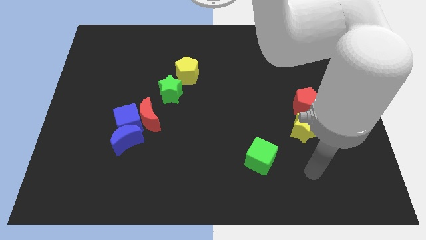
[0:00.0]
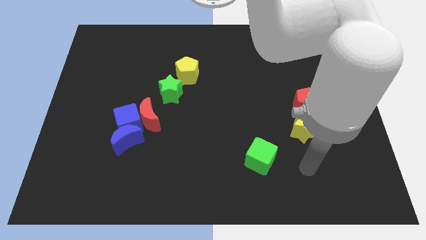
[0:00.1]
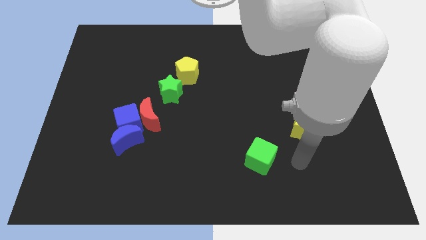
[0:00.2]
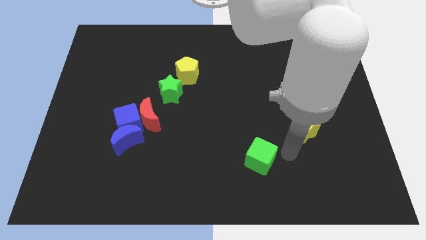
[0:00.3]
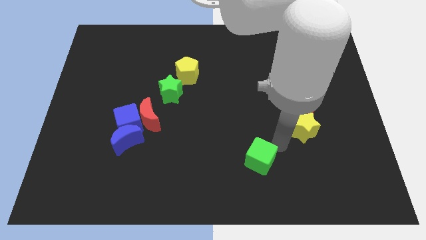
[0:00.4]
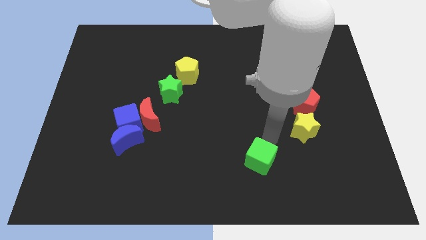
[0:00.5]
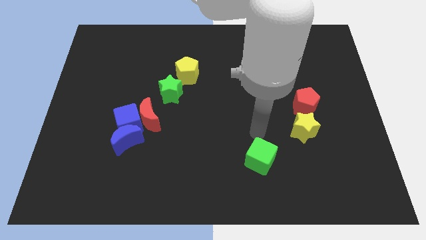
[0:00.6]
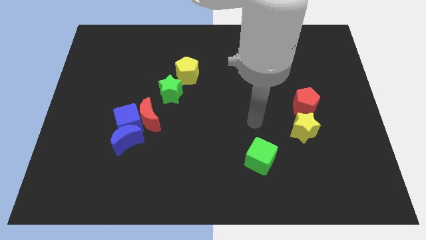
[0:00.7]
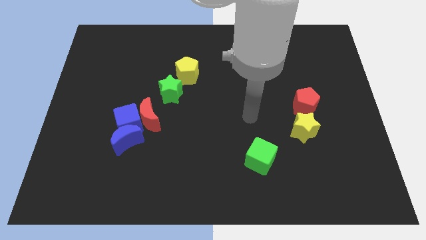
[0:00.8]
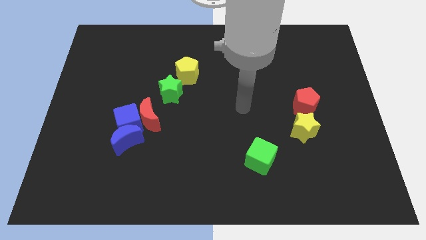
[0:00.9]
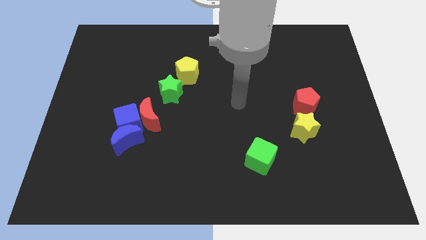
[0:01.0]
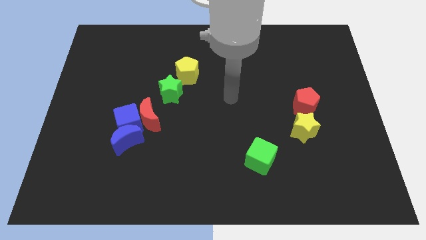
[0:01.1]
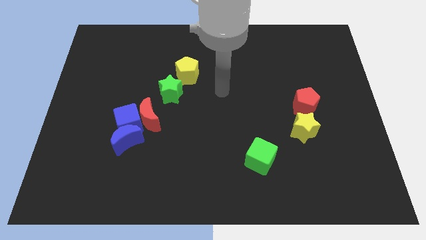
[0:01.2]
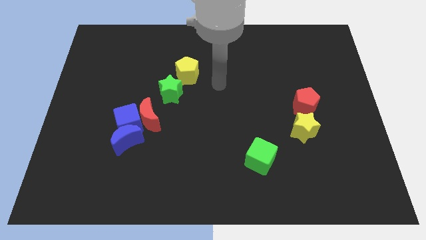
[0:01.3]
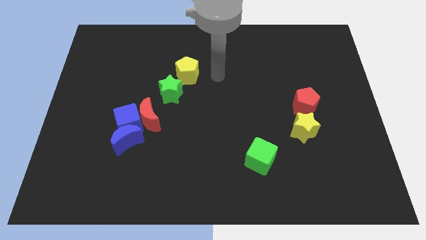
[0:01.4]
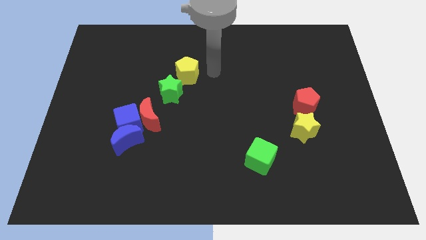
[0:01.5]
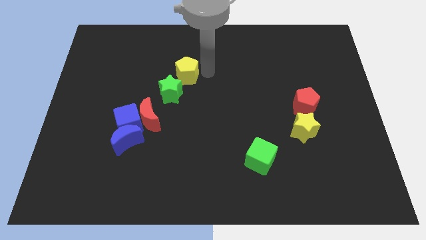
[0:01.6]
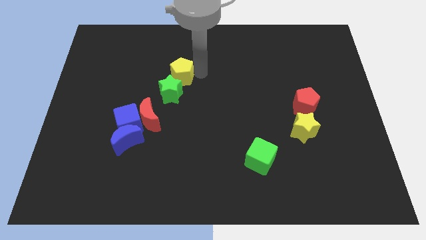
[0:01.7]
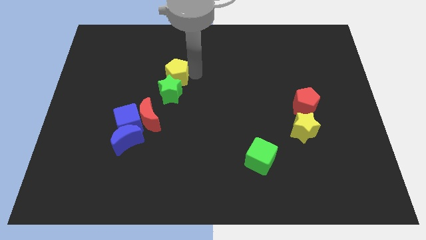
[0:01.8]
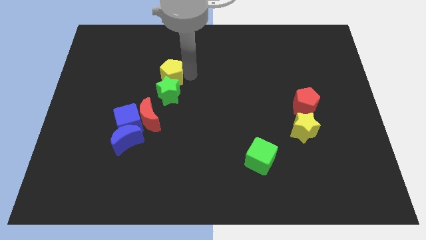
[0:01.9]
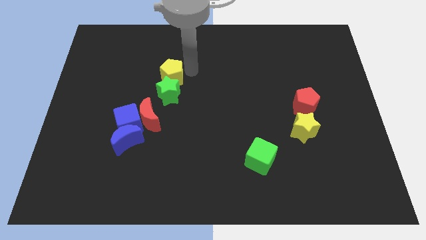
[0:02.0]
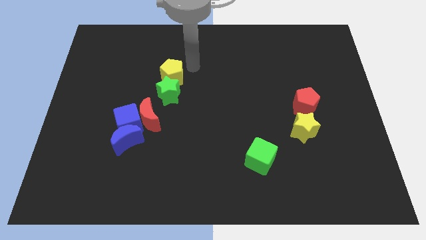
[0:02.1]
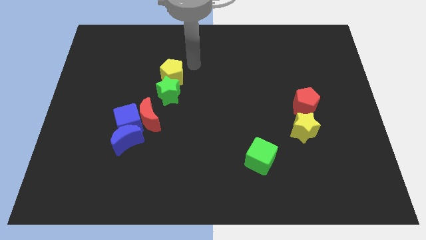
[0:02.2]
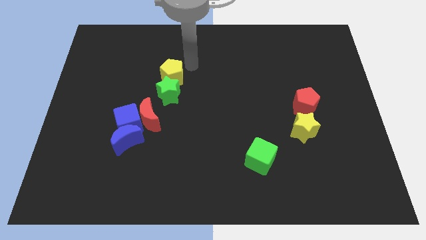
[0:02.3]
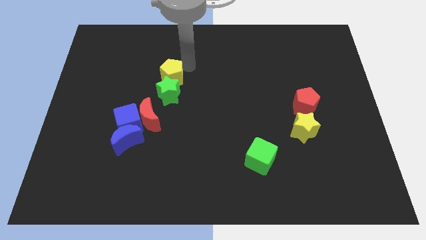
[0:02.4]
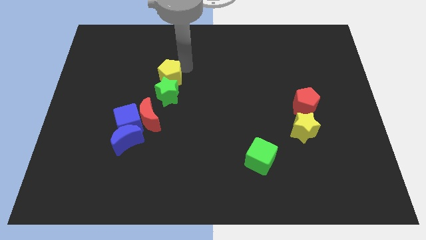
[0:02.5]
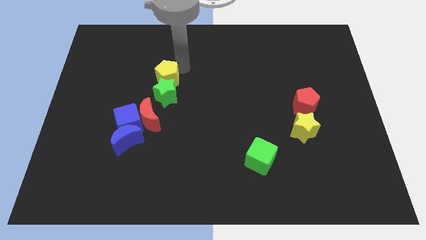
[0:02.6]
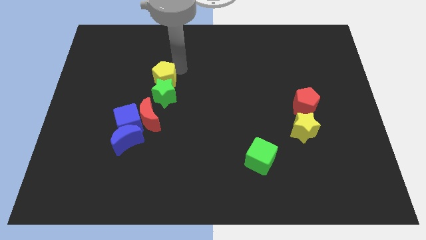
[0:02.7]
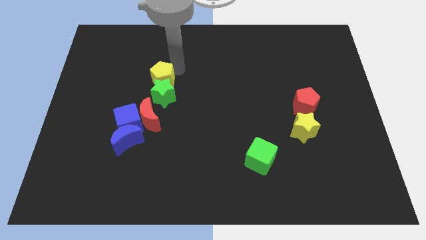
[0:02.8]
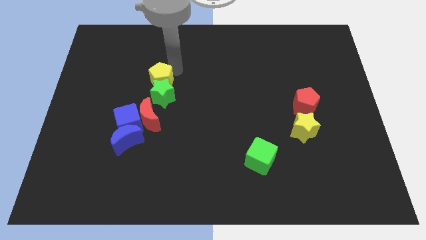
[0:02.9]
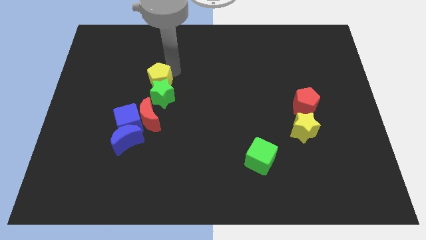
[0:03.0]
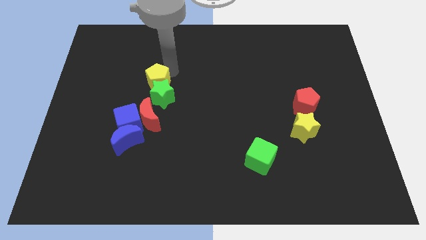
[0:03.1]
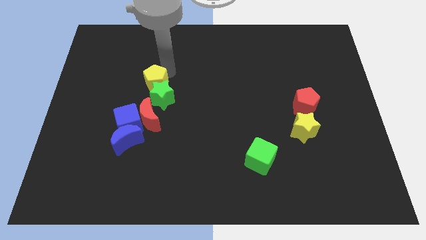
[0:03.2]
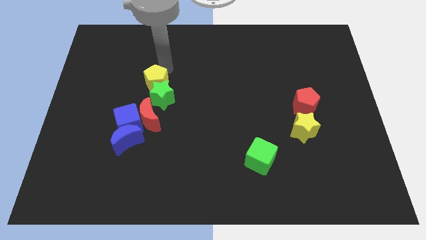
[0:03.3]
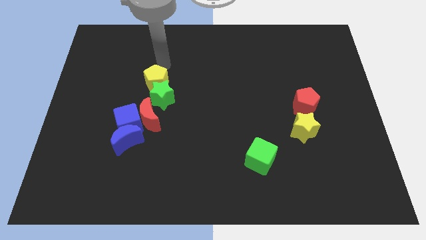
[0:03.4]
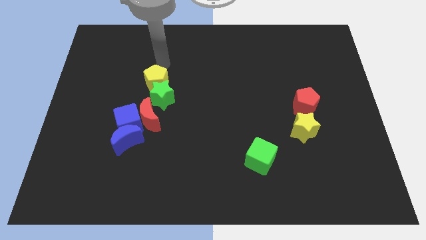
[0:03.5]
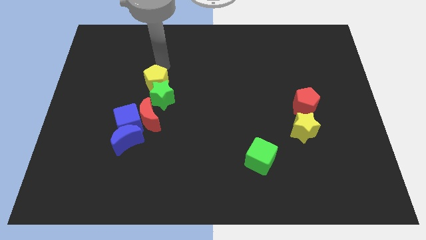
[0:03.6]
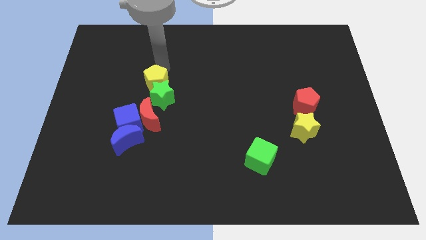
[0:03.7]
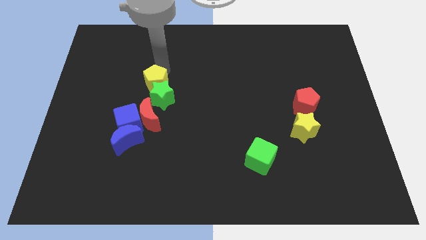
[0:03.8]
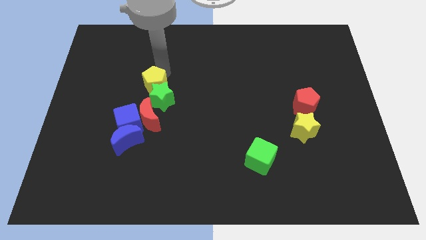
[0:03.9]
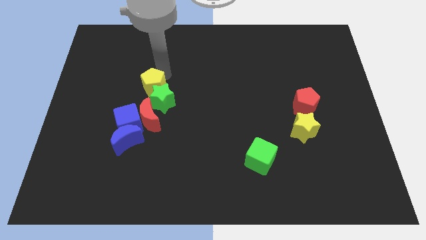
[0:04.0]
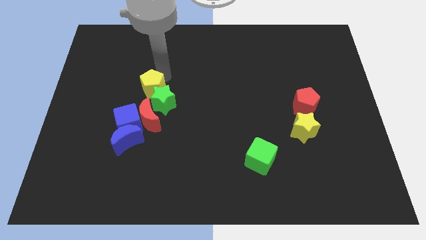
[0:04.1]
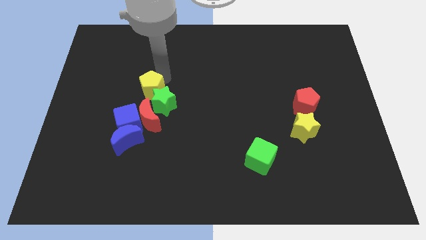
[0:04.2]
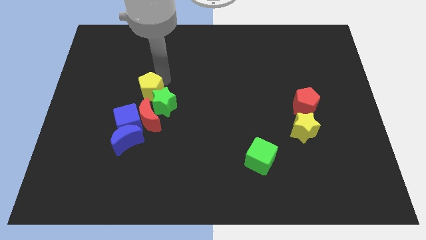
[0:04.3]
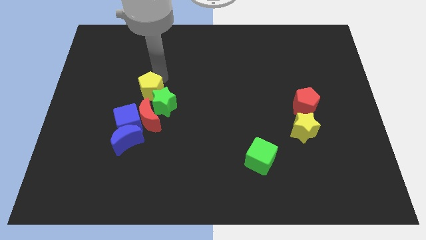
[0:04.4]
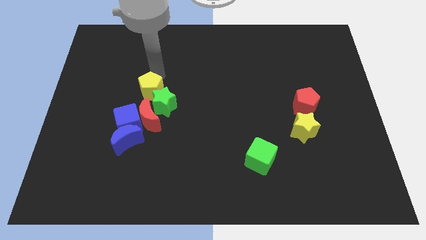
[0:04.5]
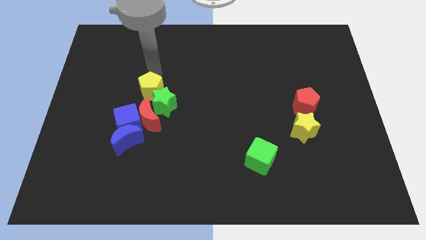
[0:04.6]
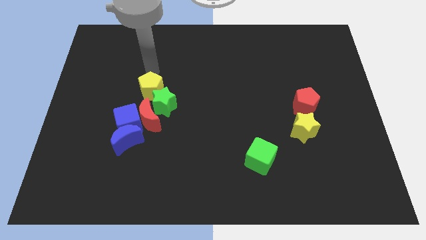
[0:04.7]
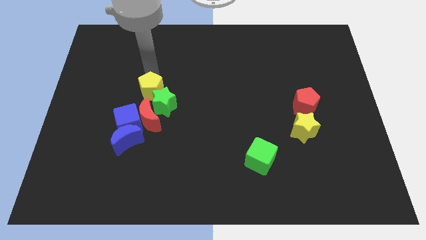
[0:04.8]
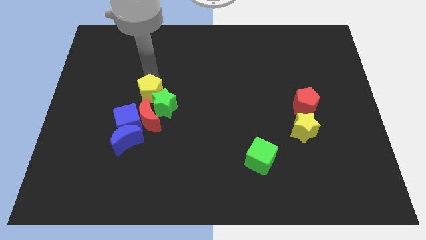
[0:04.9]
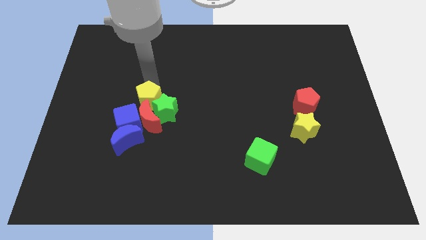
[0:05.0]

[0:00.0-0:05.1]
push the yellow pentagon towards the red moon

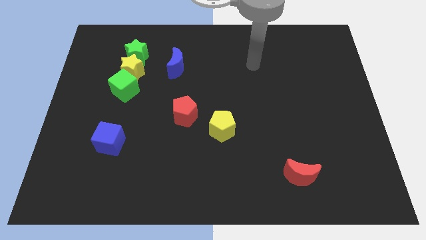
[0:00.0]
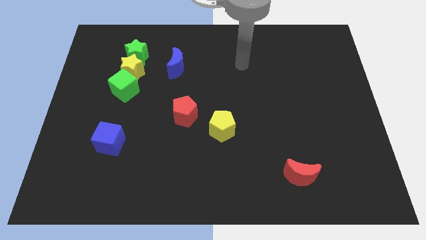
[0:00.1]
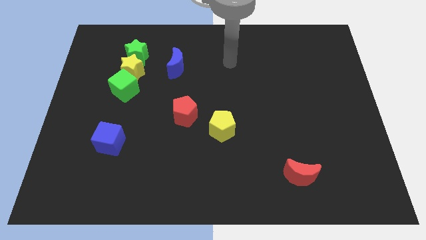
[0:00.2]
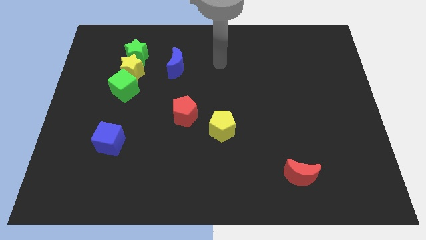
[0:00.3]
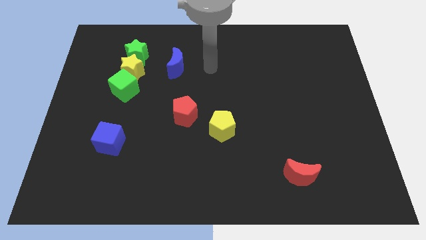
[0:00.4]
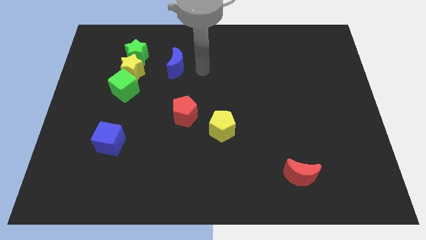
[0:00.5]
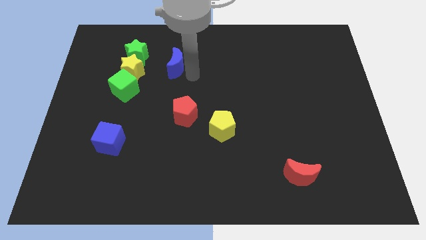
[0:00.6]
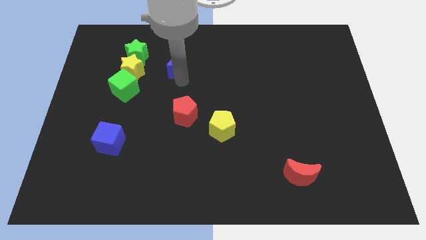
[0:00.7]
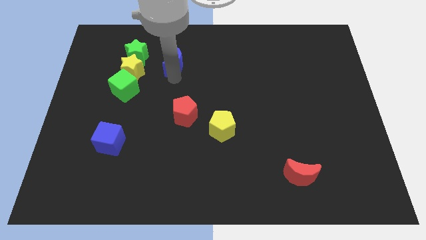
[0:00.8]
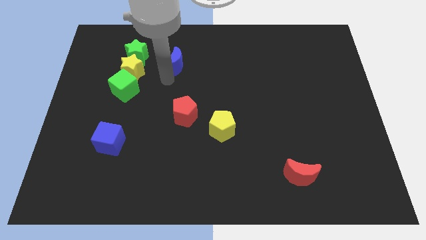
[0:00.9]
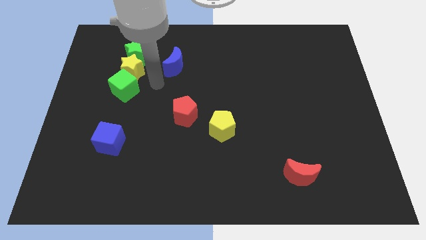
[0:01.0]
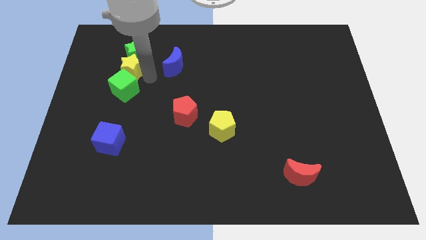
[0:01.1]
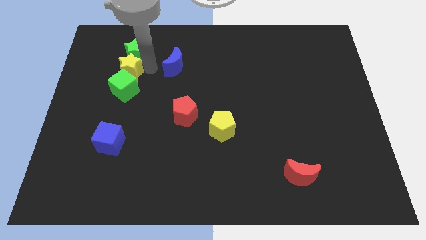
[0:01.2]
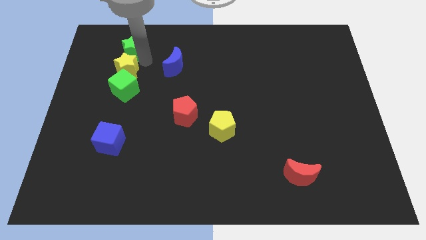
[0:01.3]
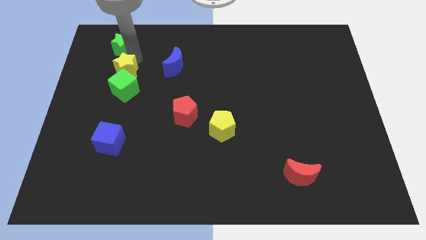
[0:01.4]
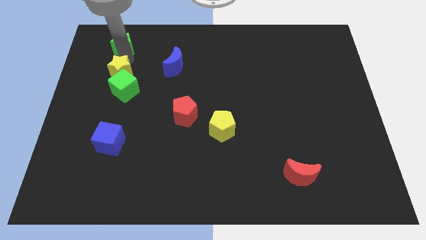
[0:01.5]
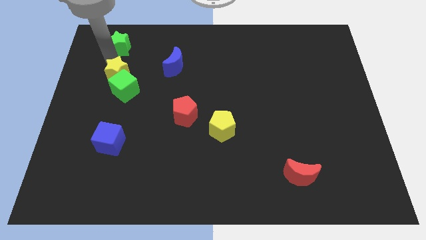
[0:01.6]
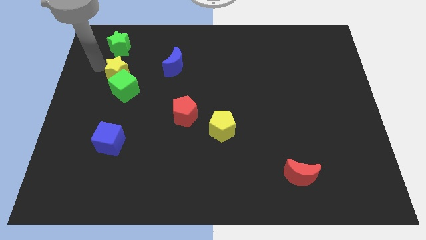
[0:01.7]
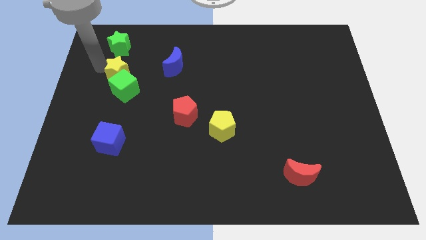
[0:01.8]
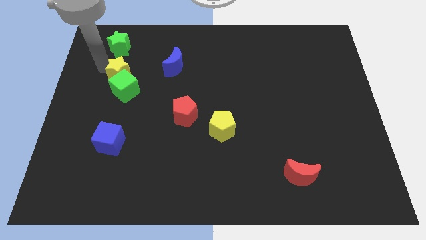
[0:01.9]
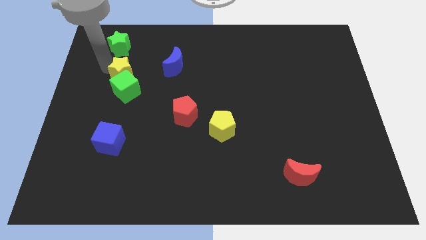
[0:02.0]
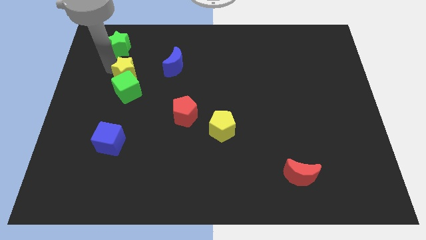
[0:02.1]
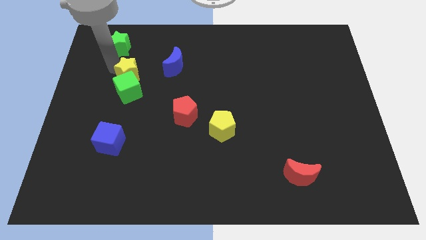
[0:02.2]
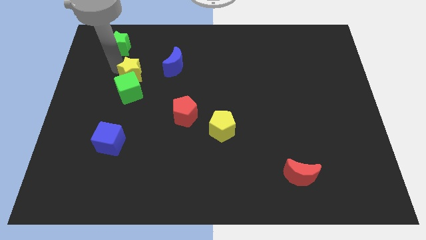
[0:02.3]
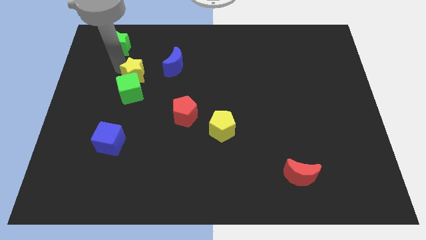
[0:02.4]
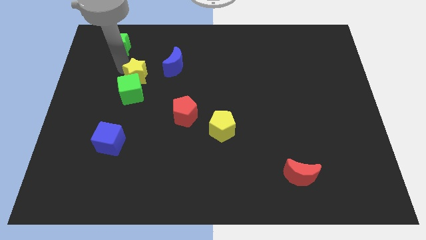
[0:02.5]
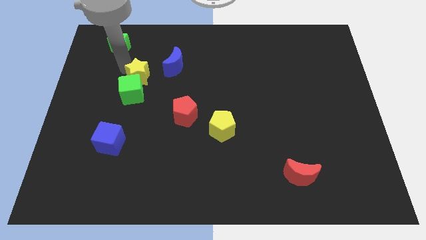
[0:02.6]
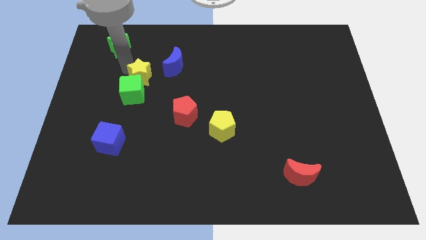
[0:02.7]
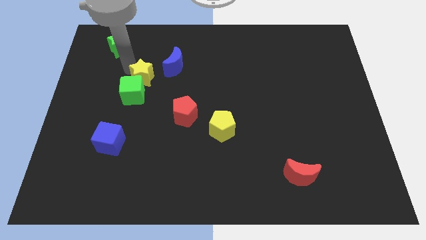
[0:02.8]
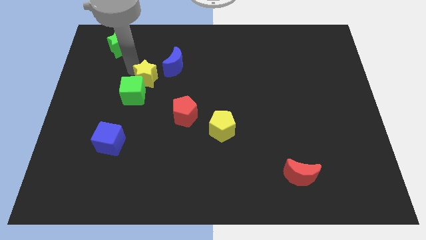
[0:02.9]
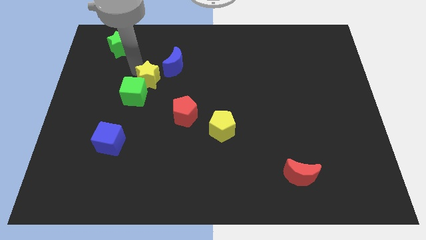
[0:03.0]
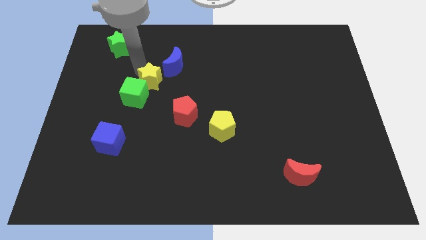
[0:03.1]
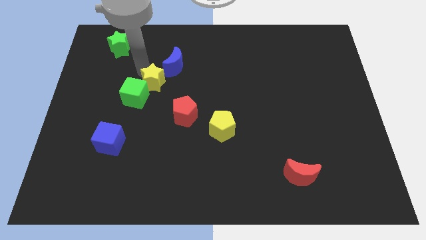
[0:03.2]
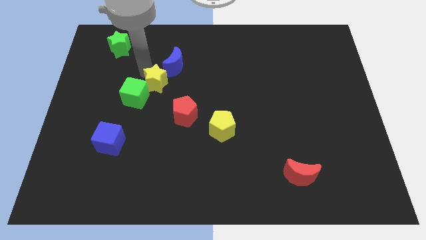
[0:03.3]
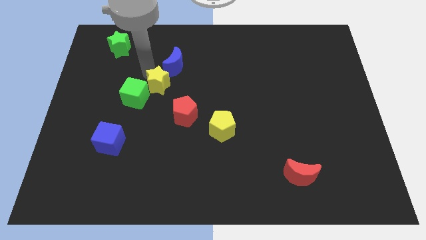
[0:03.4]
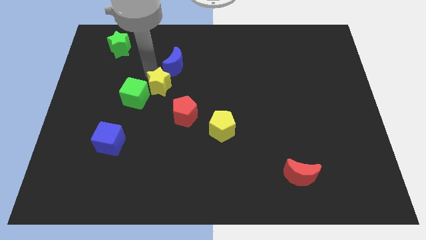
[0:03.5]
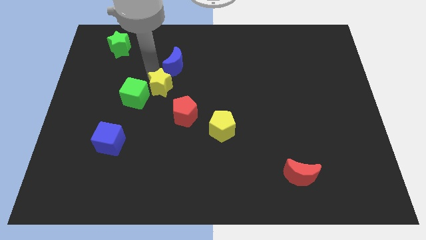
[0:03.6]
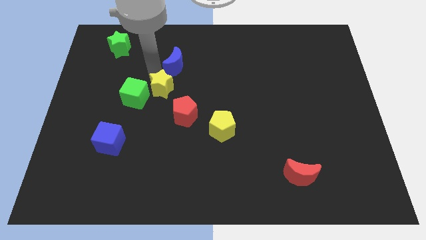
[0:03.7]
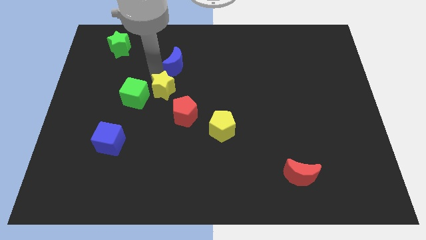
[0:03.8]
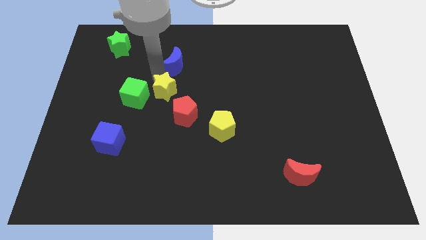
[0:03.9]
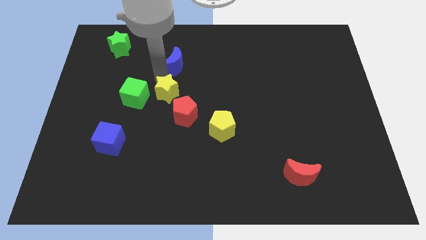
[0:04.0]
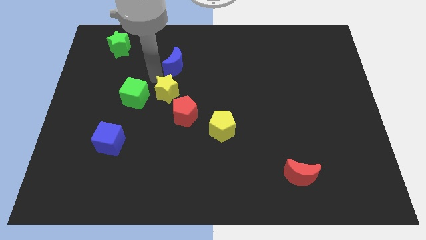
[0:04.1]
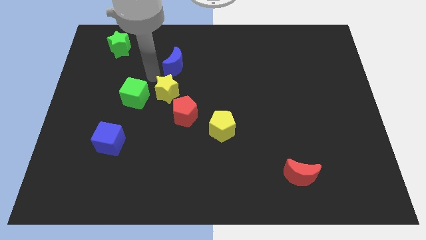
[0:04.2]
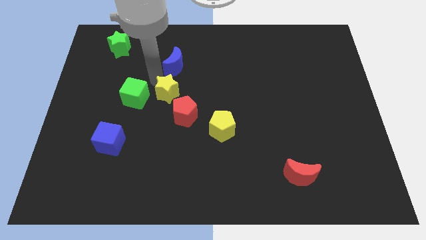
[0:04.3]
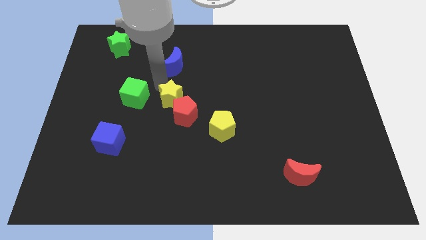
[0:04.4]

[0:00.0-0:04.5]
push the yellow star next to the red pentagon
